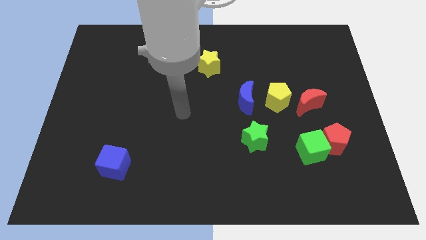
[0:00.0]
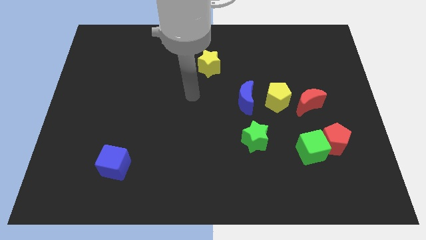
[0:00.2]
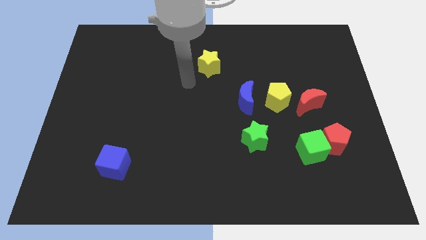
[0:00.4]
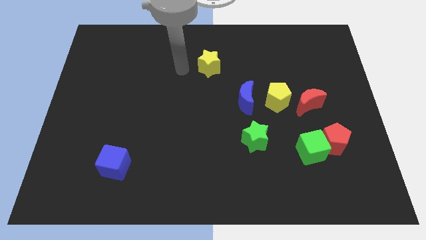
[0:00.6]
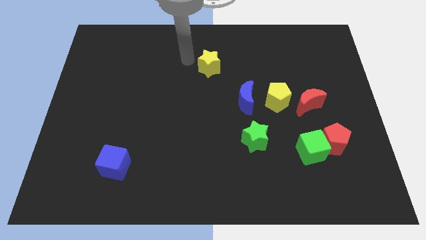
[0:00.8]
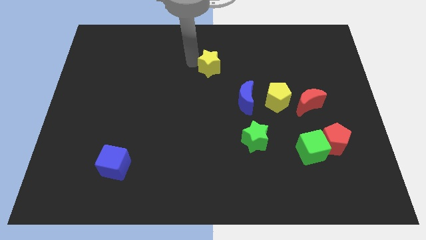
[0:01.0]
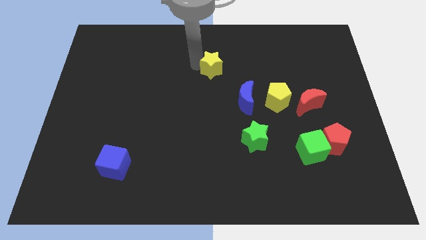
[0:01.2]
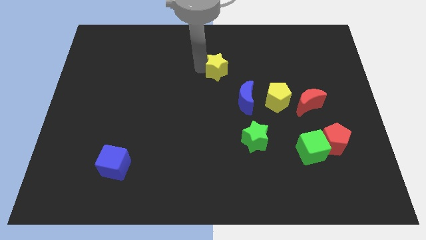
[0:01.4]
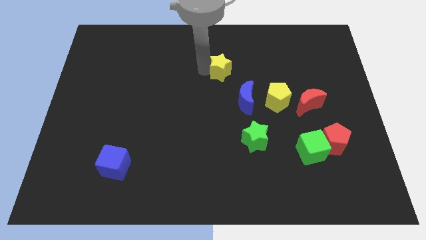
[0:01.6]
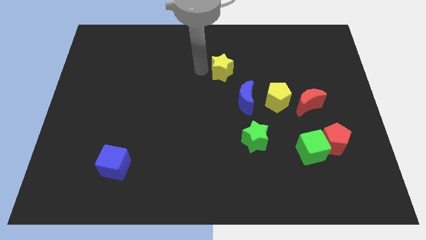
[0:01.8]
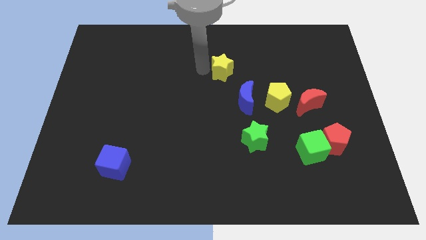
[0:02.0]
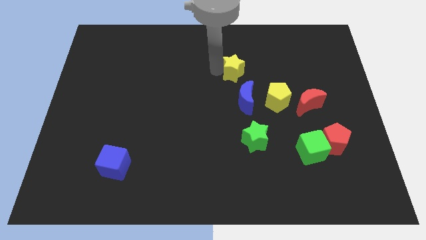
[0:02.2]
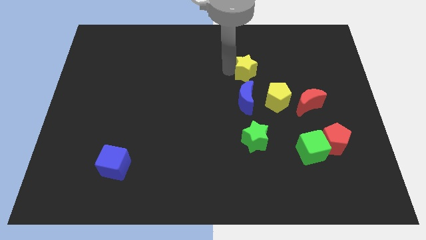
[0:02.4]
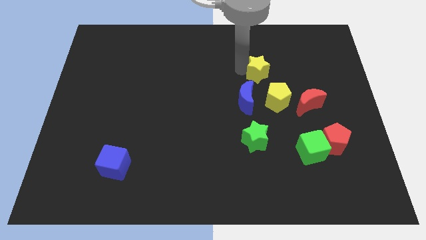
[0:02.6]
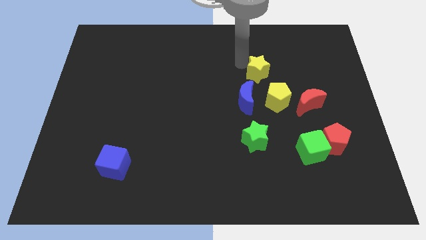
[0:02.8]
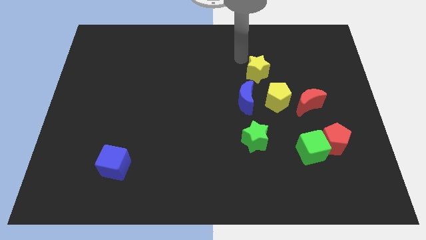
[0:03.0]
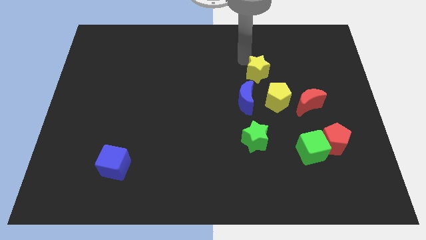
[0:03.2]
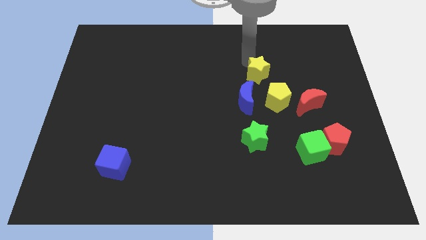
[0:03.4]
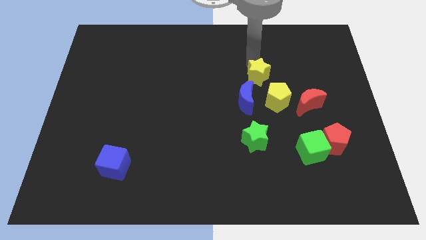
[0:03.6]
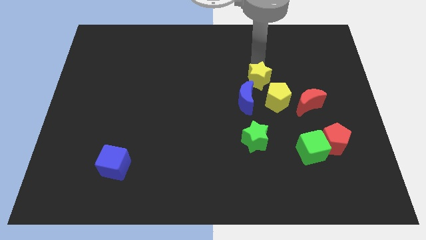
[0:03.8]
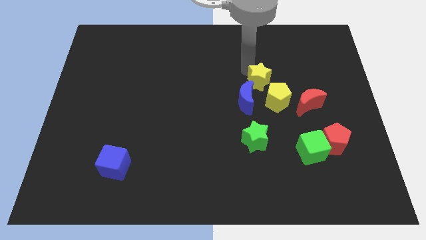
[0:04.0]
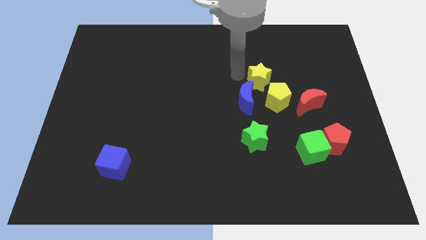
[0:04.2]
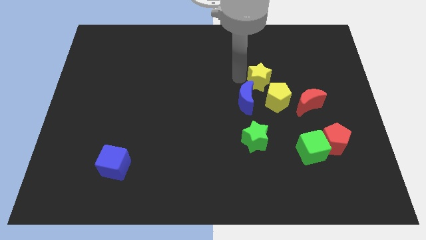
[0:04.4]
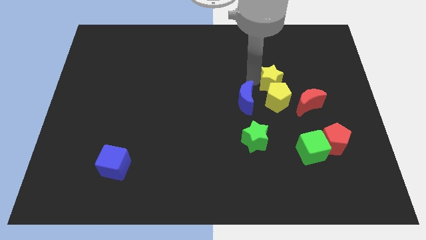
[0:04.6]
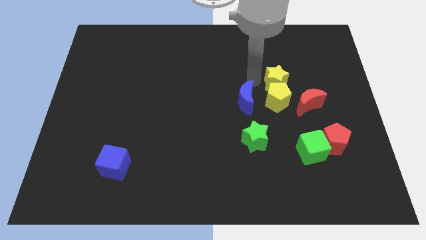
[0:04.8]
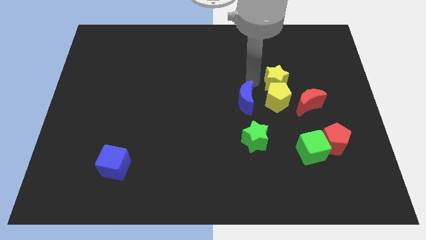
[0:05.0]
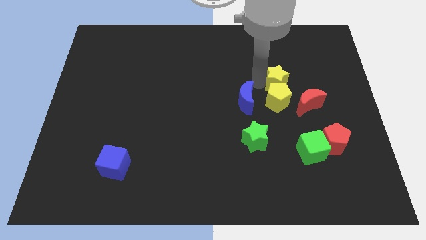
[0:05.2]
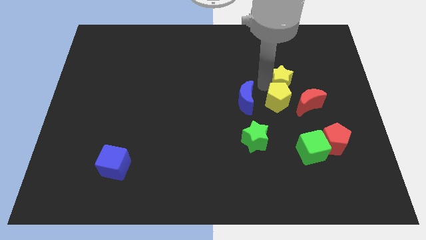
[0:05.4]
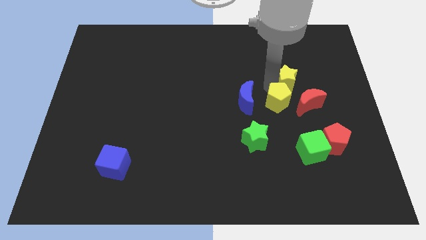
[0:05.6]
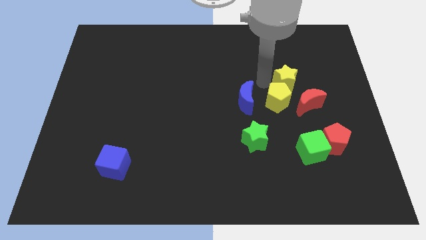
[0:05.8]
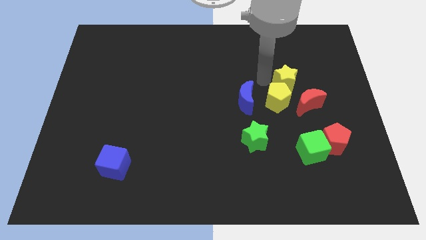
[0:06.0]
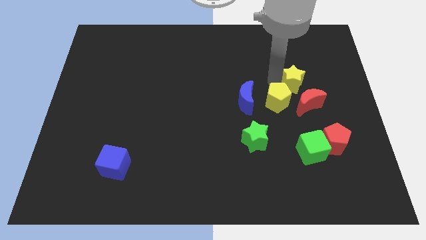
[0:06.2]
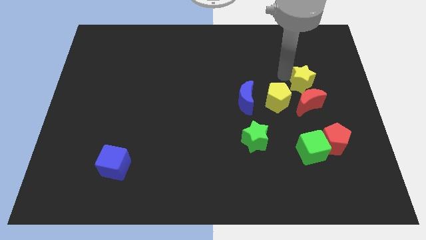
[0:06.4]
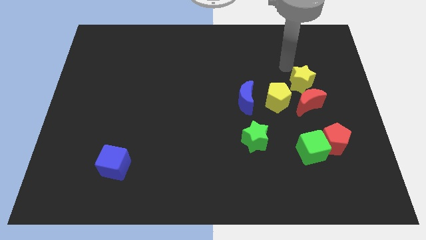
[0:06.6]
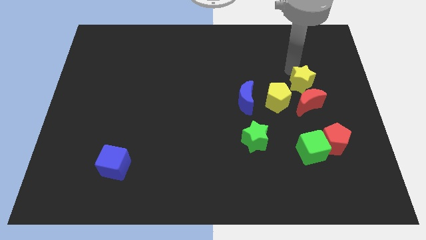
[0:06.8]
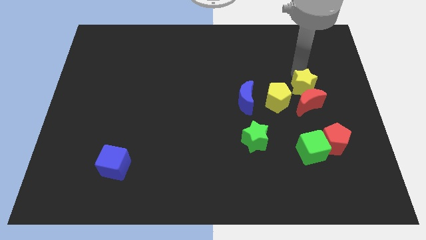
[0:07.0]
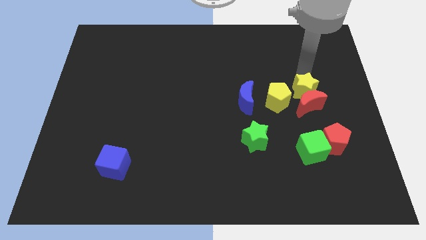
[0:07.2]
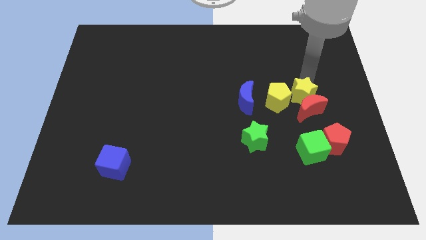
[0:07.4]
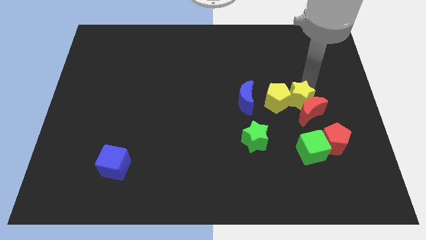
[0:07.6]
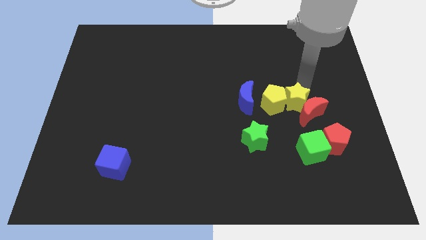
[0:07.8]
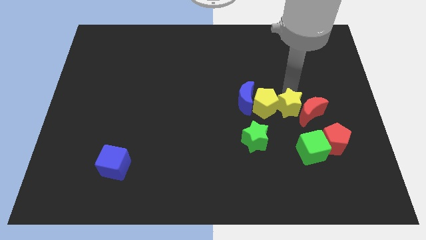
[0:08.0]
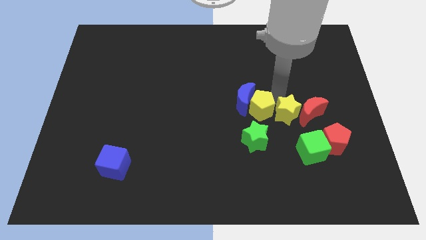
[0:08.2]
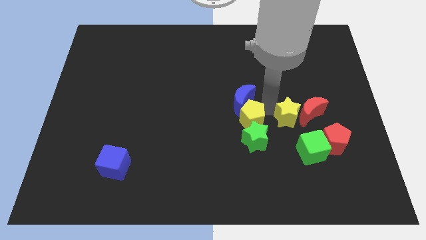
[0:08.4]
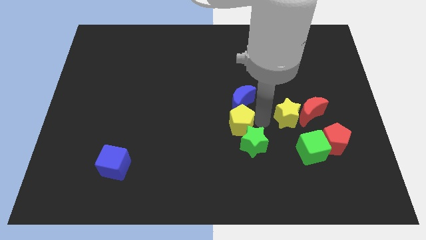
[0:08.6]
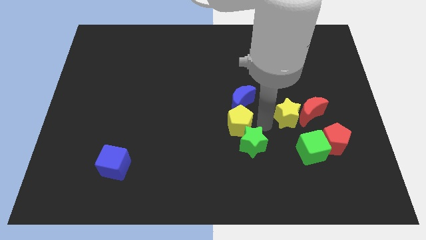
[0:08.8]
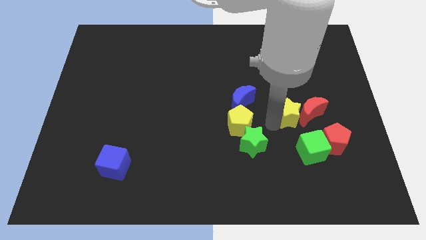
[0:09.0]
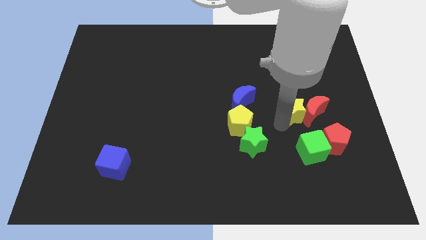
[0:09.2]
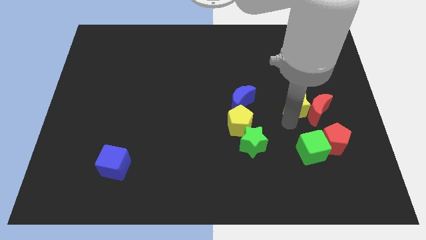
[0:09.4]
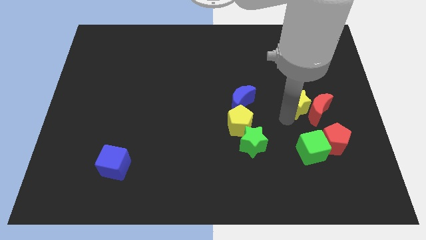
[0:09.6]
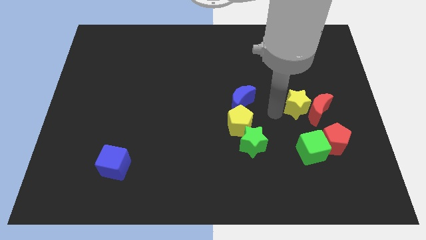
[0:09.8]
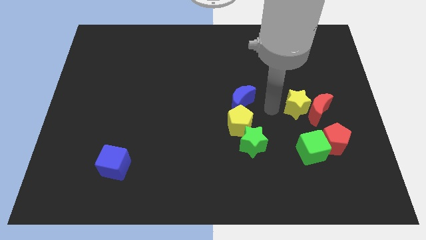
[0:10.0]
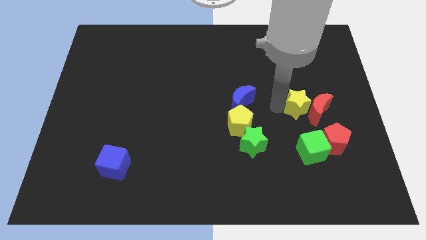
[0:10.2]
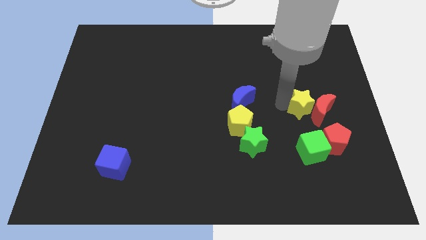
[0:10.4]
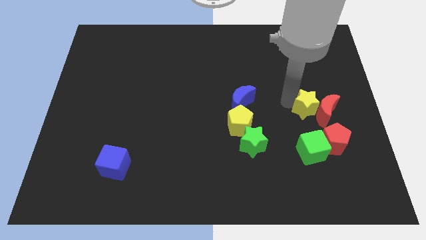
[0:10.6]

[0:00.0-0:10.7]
slide the yellow star to the top side of the red pentagon

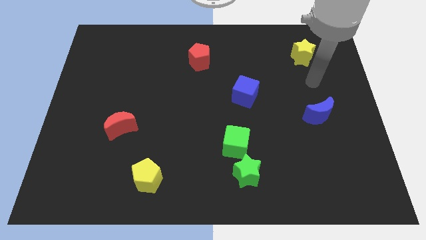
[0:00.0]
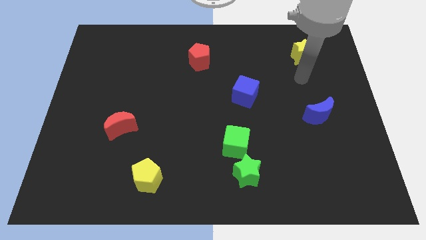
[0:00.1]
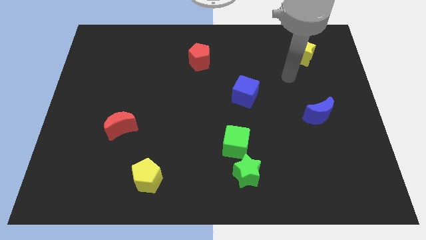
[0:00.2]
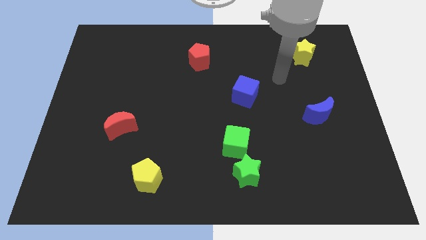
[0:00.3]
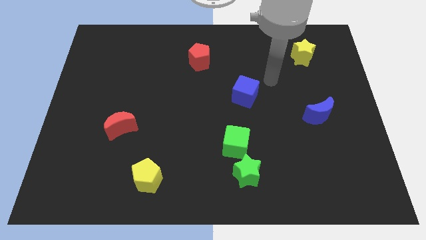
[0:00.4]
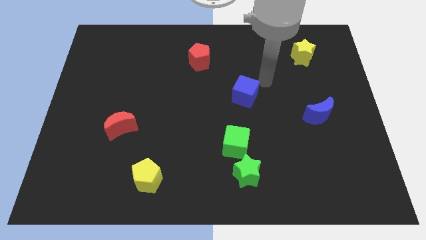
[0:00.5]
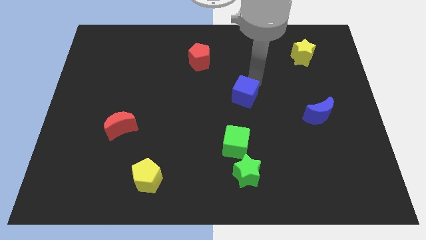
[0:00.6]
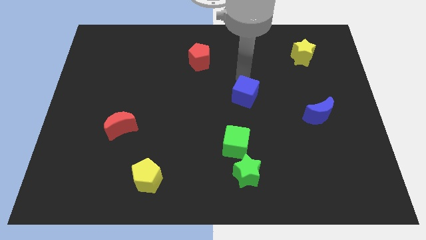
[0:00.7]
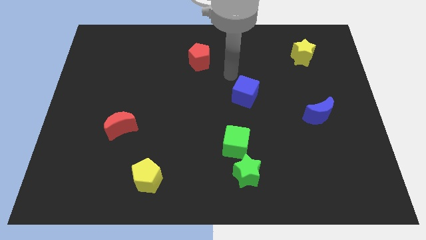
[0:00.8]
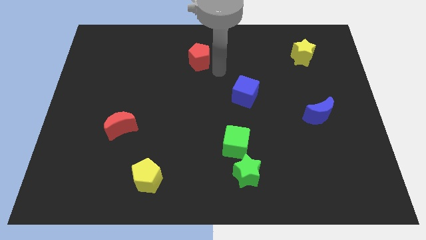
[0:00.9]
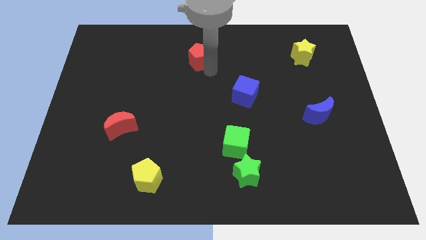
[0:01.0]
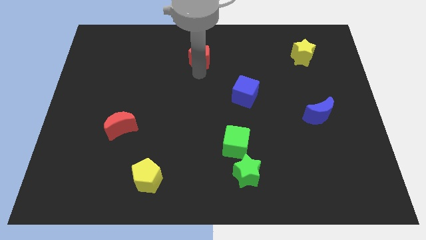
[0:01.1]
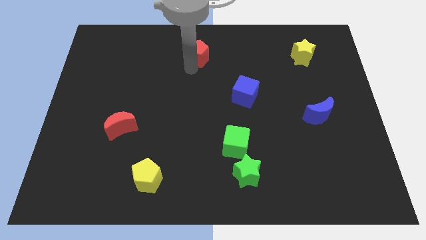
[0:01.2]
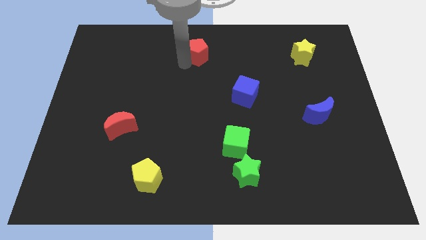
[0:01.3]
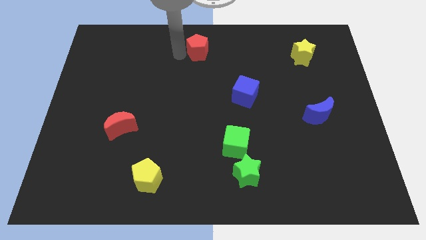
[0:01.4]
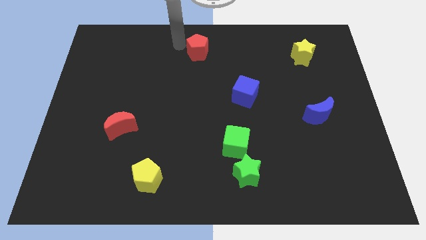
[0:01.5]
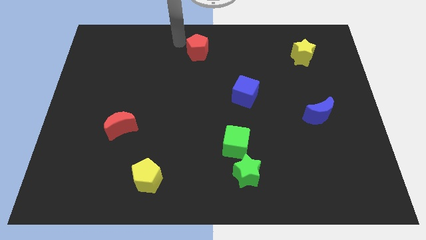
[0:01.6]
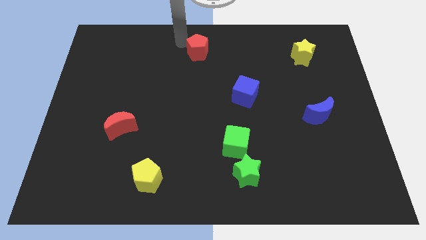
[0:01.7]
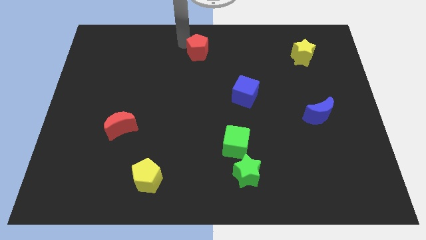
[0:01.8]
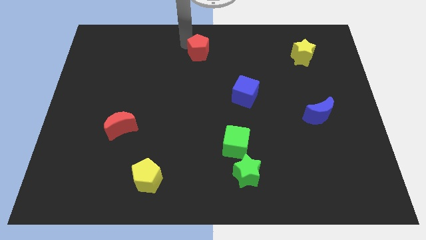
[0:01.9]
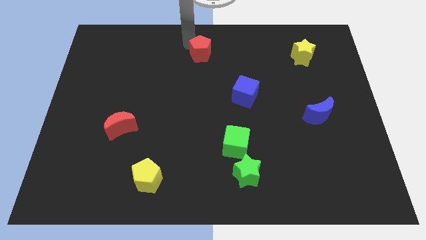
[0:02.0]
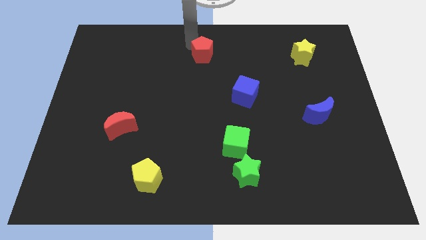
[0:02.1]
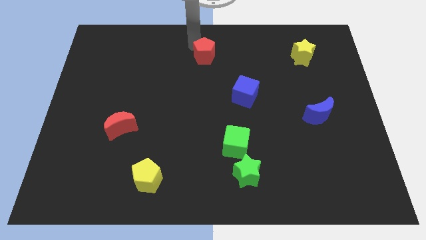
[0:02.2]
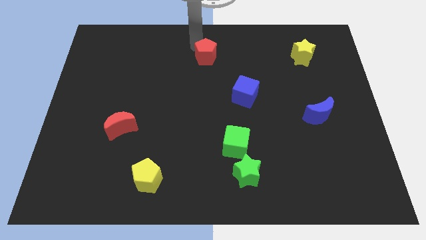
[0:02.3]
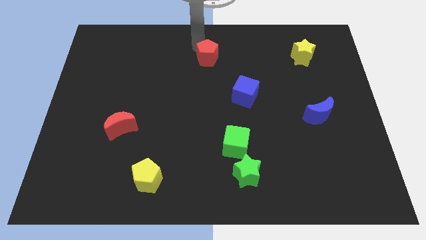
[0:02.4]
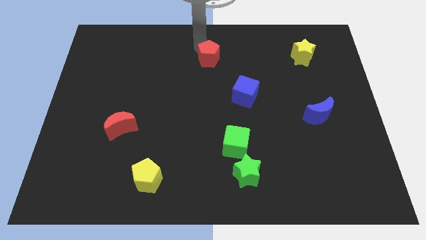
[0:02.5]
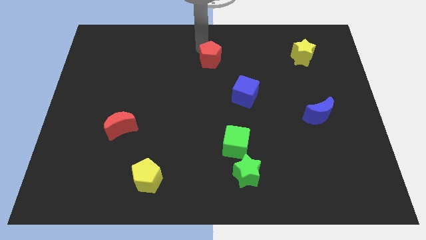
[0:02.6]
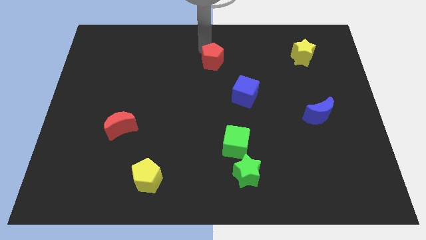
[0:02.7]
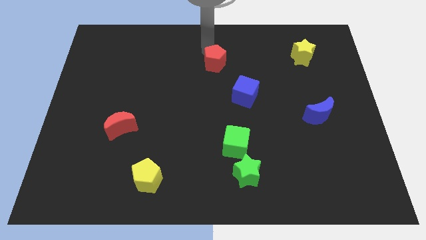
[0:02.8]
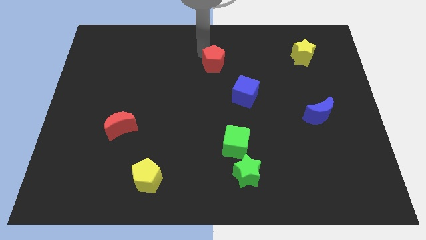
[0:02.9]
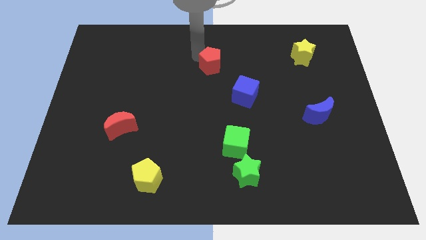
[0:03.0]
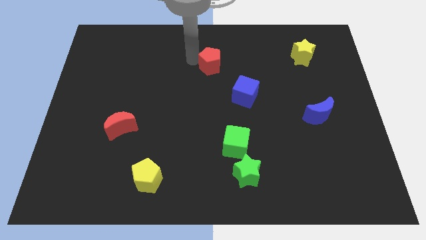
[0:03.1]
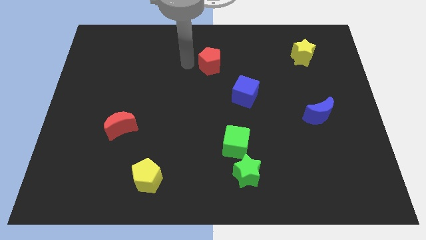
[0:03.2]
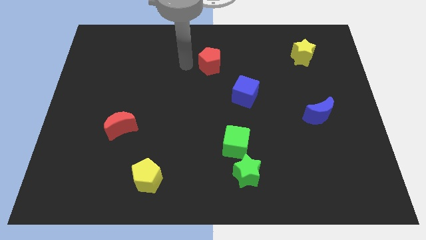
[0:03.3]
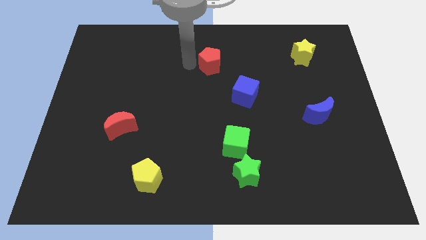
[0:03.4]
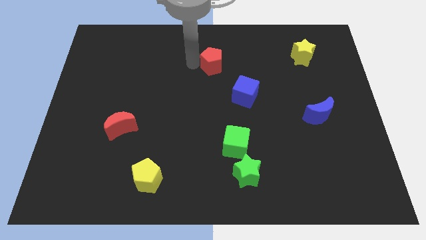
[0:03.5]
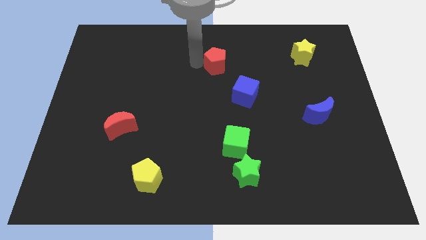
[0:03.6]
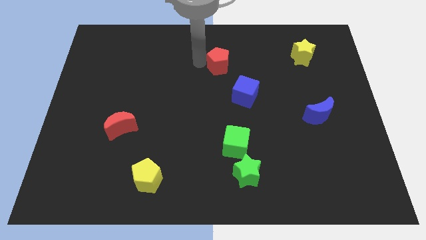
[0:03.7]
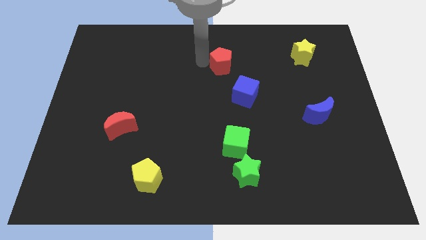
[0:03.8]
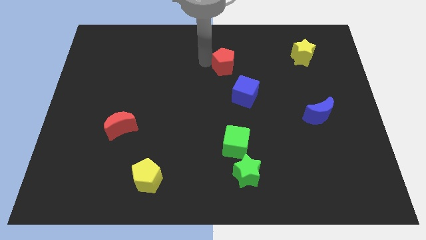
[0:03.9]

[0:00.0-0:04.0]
put the red pentagon above the blue cube
